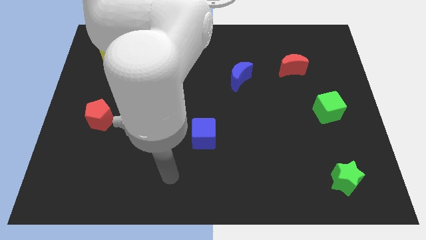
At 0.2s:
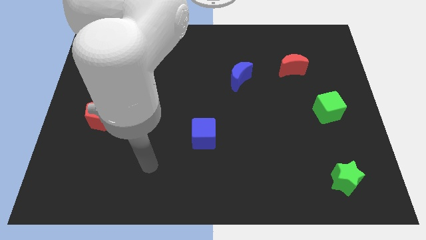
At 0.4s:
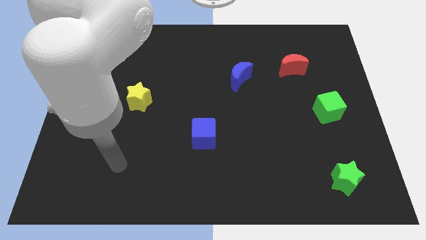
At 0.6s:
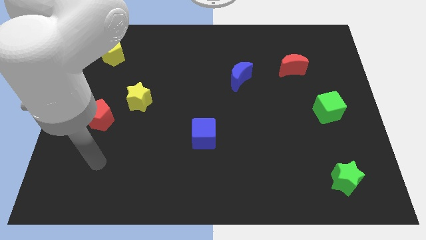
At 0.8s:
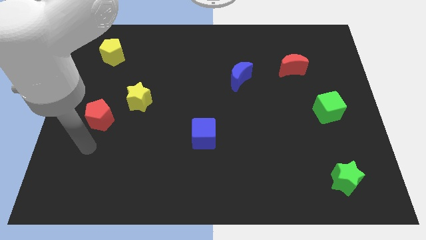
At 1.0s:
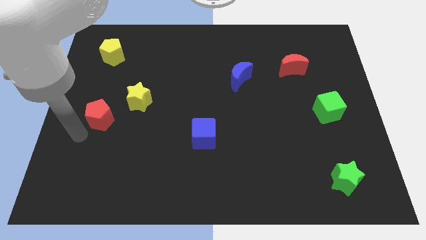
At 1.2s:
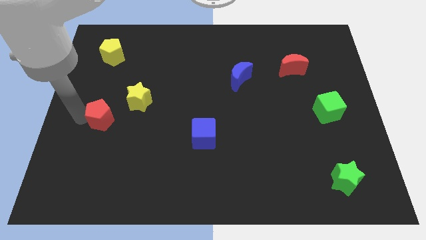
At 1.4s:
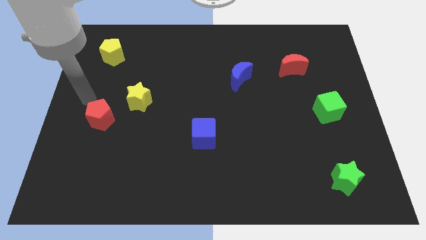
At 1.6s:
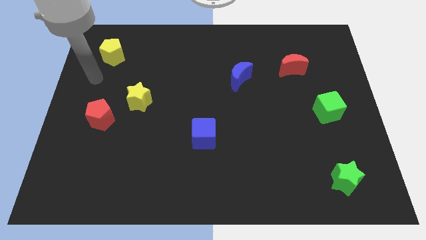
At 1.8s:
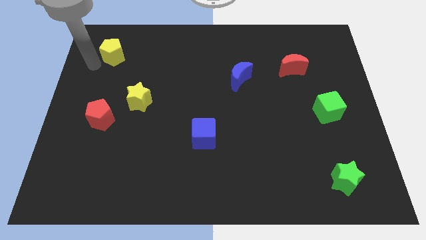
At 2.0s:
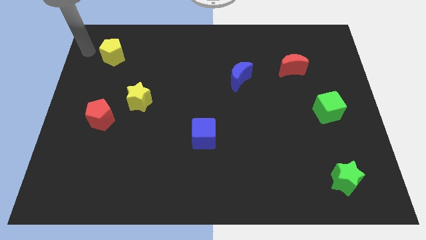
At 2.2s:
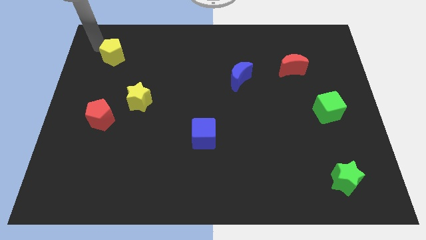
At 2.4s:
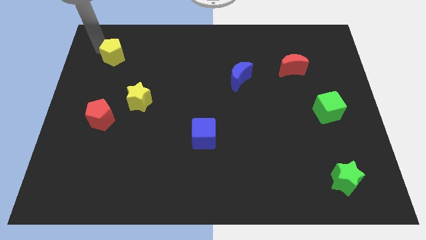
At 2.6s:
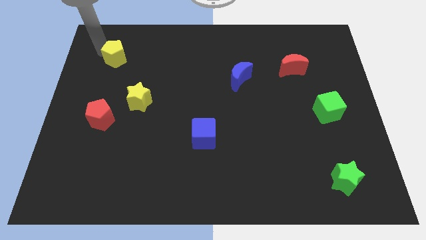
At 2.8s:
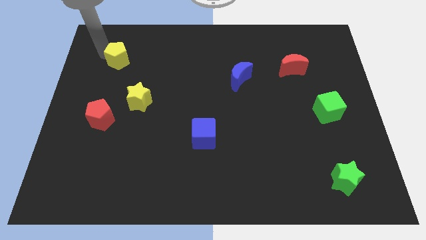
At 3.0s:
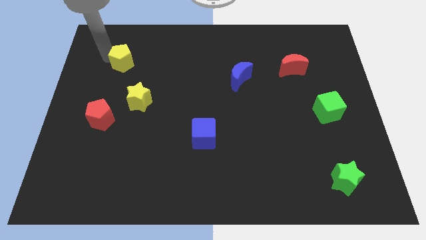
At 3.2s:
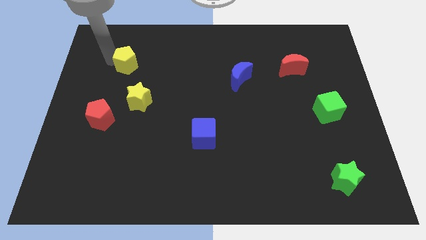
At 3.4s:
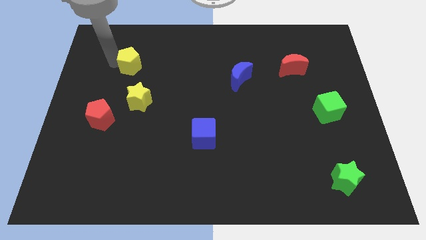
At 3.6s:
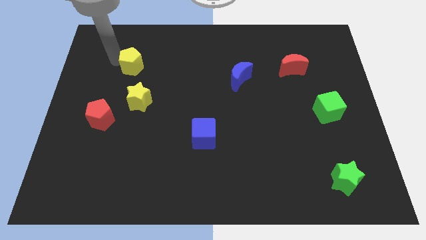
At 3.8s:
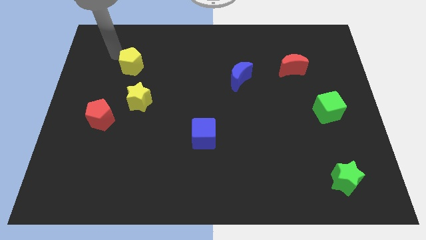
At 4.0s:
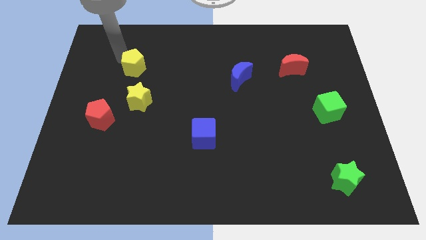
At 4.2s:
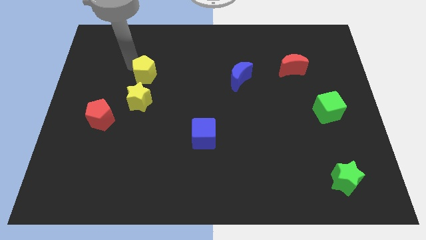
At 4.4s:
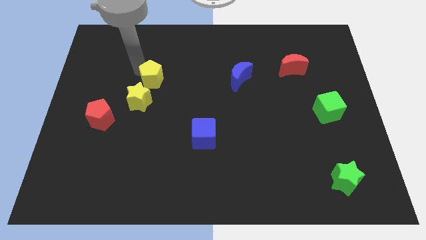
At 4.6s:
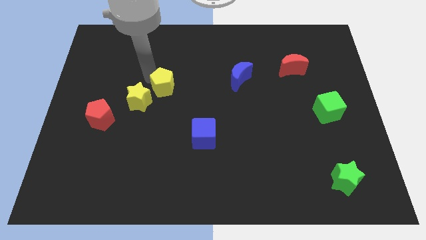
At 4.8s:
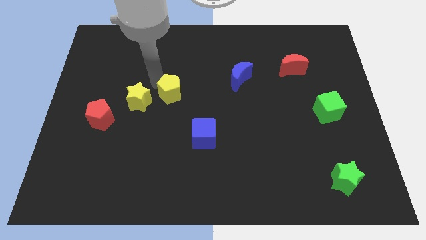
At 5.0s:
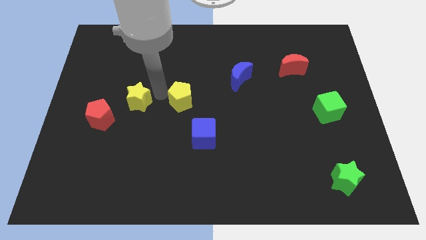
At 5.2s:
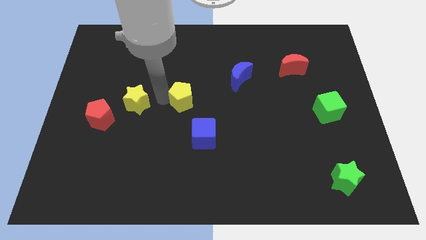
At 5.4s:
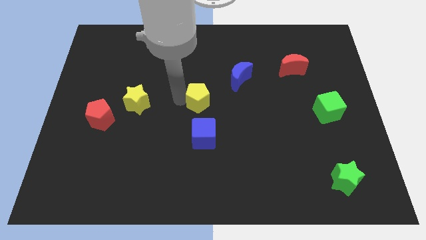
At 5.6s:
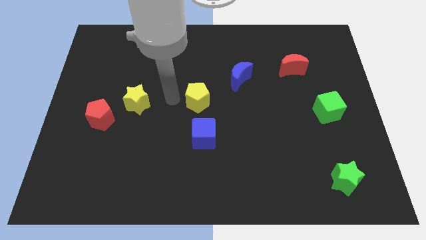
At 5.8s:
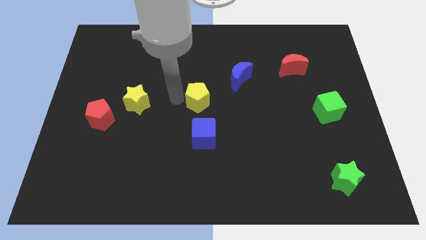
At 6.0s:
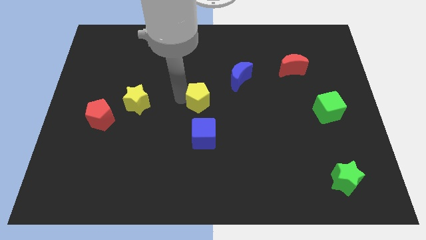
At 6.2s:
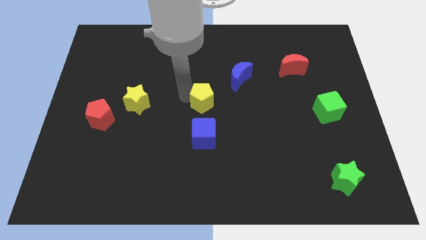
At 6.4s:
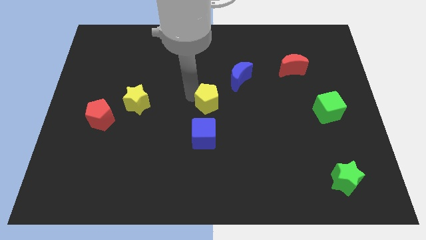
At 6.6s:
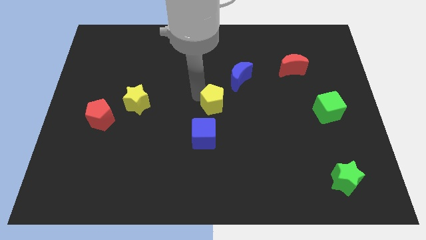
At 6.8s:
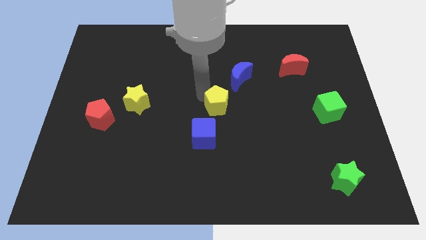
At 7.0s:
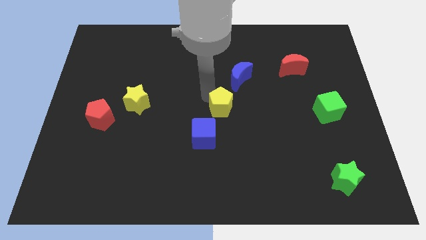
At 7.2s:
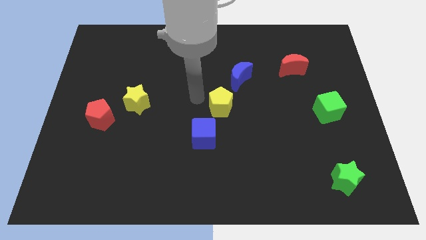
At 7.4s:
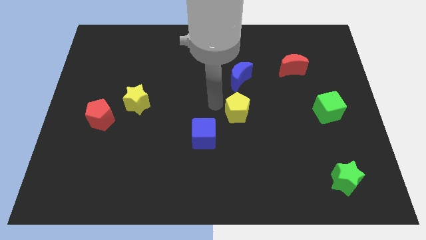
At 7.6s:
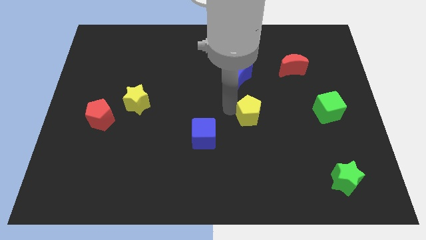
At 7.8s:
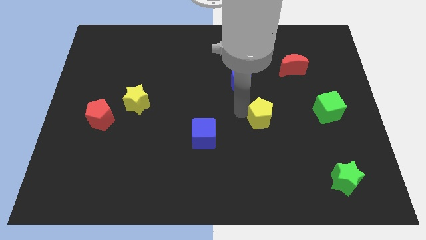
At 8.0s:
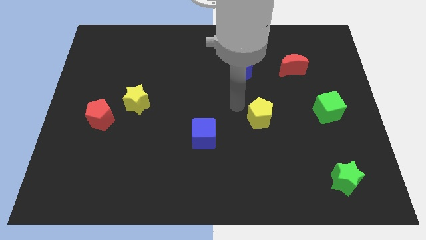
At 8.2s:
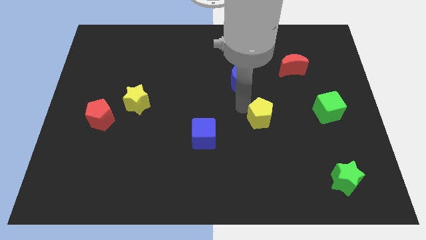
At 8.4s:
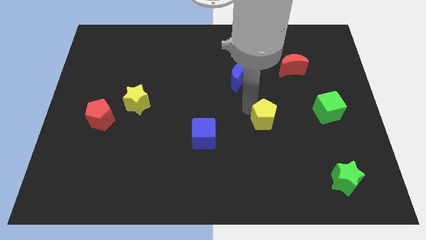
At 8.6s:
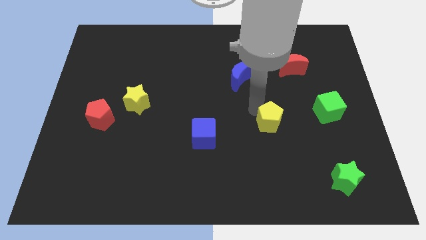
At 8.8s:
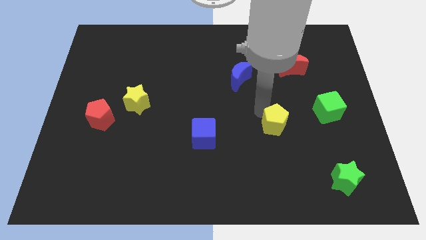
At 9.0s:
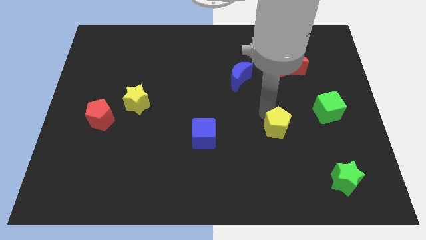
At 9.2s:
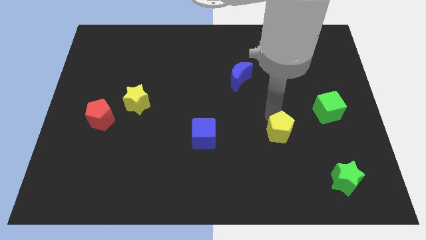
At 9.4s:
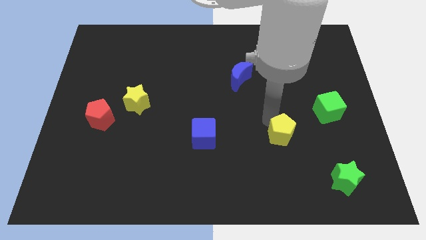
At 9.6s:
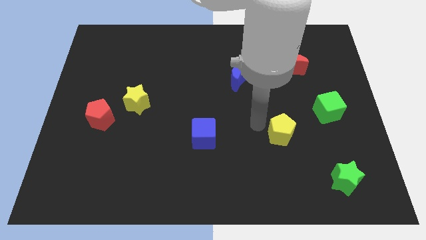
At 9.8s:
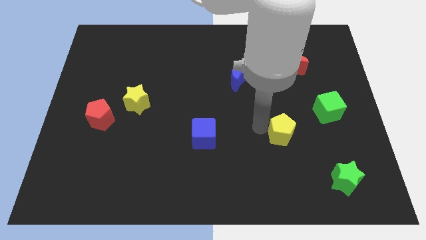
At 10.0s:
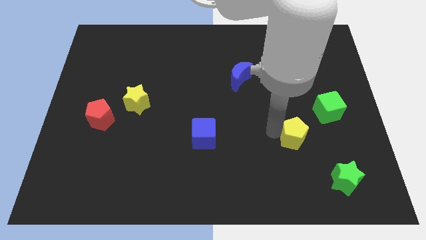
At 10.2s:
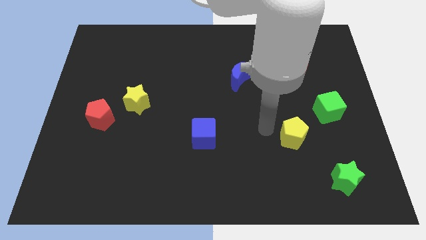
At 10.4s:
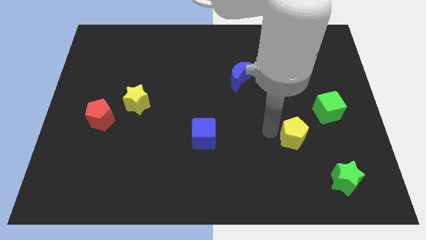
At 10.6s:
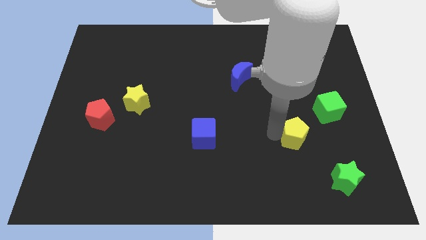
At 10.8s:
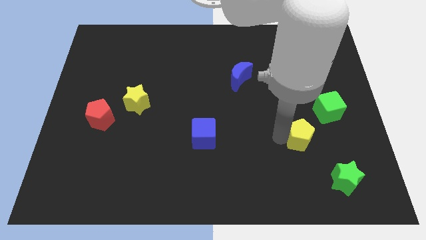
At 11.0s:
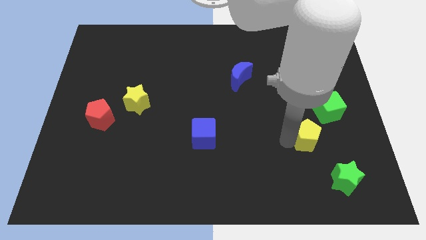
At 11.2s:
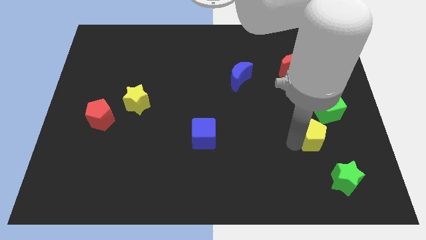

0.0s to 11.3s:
push the yellow pentagon to the bottom of the green cube

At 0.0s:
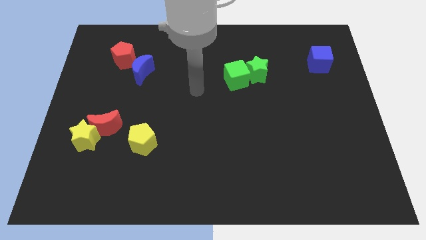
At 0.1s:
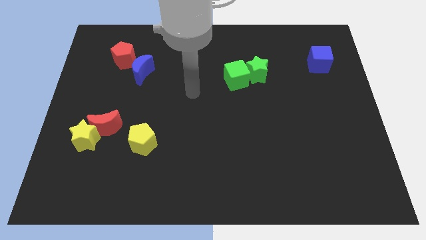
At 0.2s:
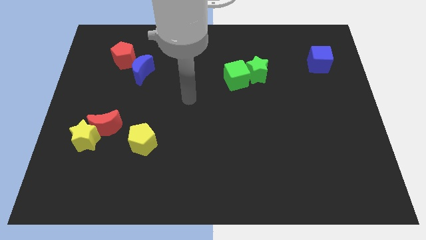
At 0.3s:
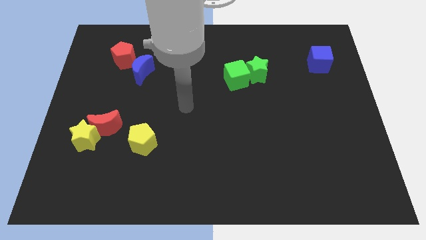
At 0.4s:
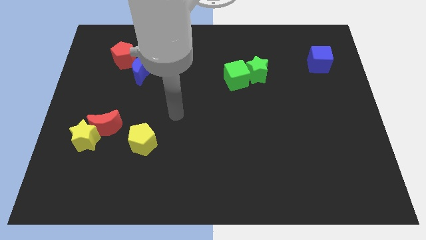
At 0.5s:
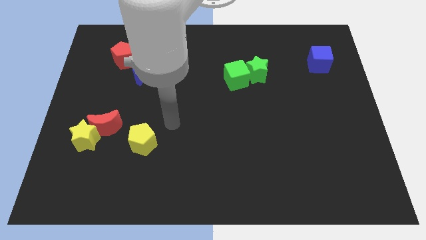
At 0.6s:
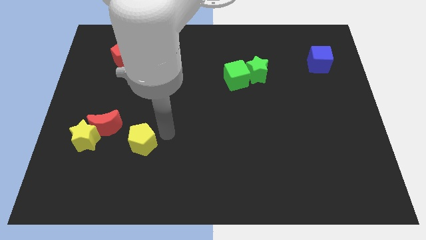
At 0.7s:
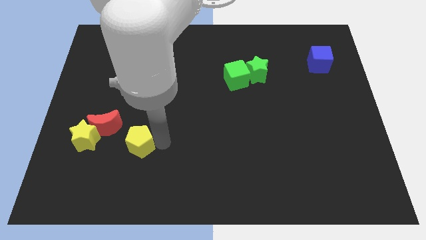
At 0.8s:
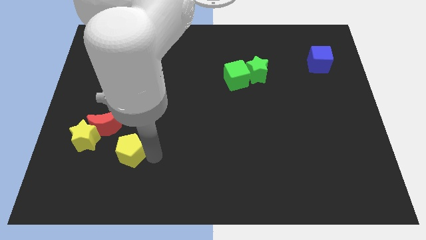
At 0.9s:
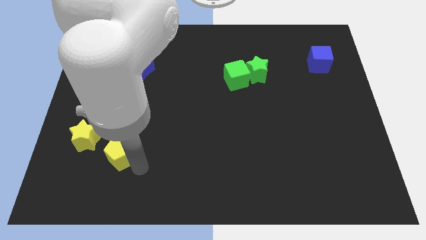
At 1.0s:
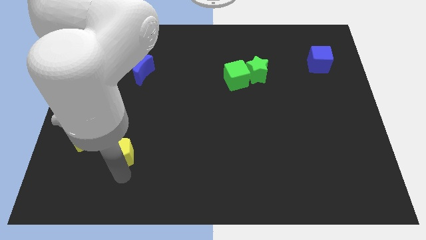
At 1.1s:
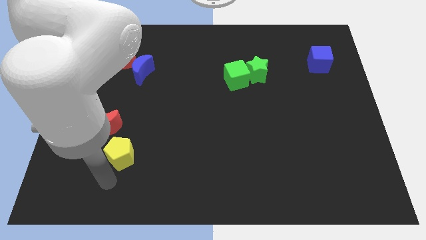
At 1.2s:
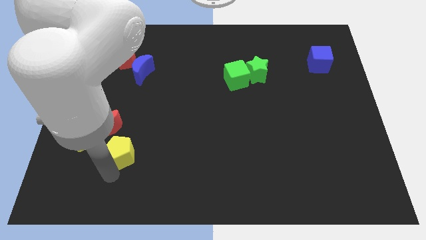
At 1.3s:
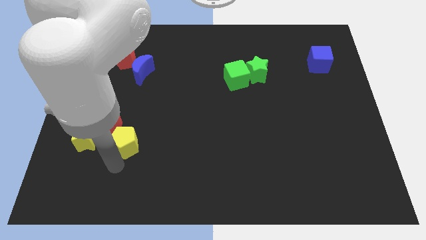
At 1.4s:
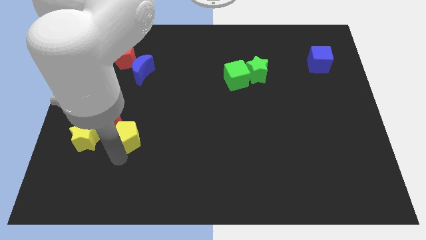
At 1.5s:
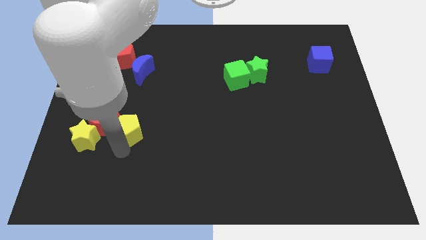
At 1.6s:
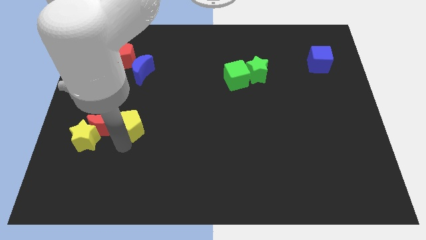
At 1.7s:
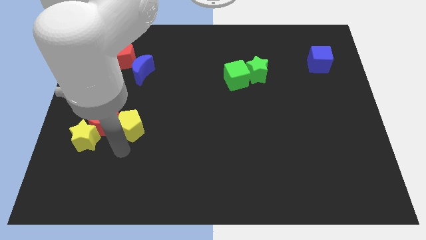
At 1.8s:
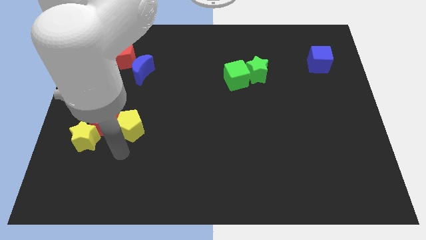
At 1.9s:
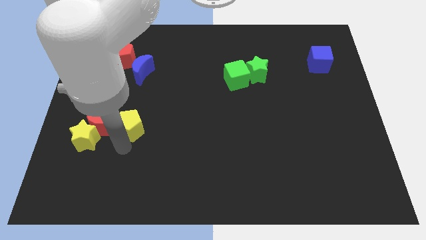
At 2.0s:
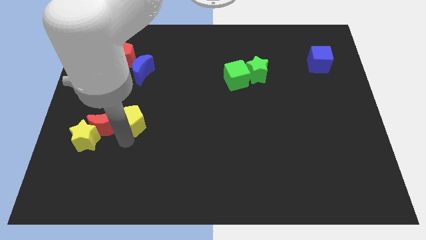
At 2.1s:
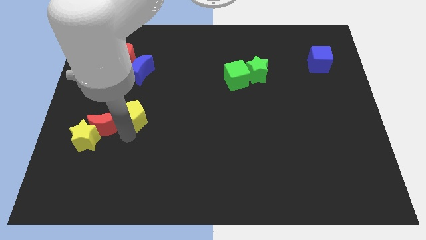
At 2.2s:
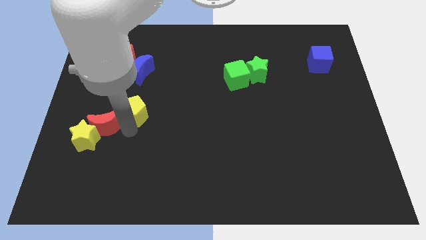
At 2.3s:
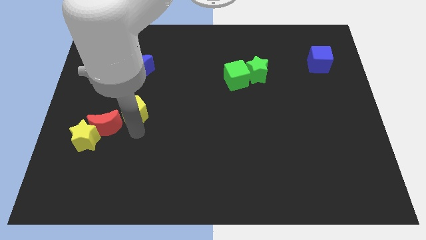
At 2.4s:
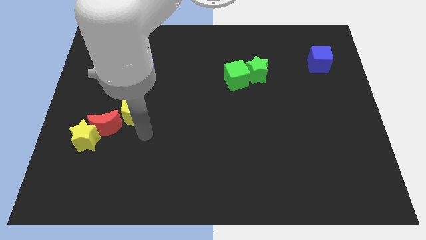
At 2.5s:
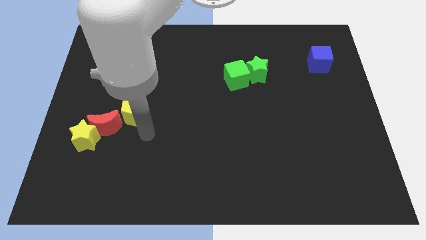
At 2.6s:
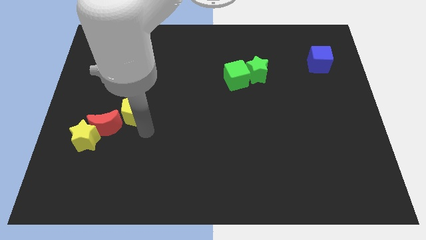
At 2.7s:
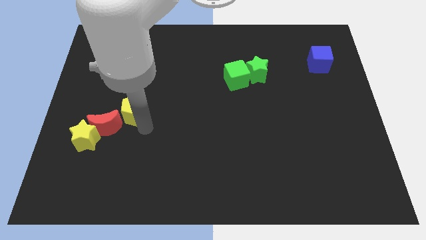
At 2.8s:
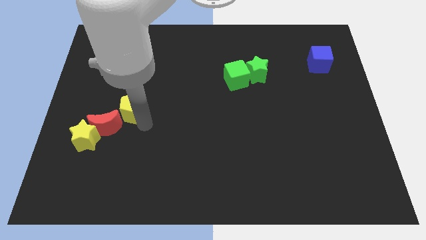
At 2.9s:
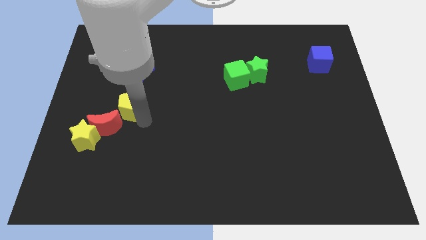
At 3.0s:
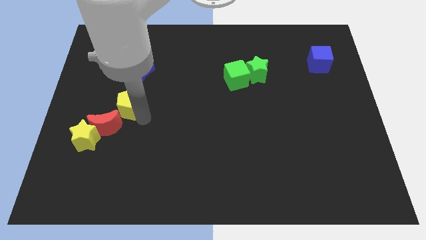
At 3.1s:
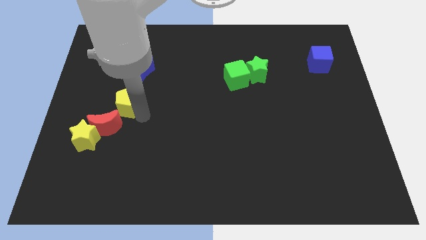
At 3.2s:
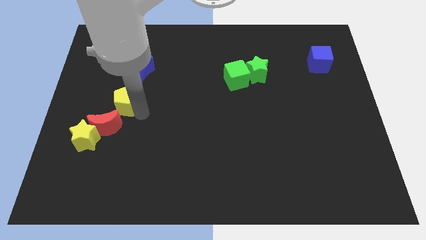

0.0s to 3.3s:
push the yellow pentagon to the bottom of the red pentagon
